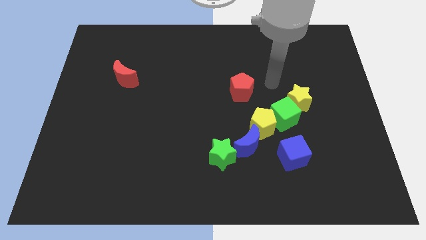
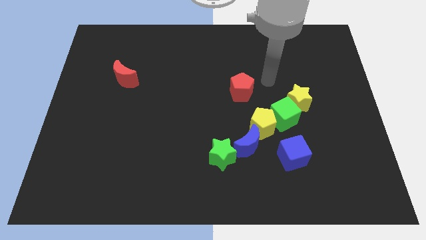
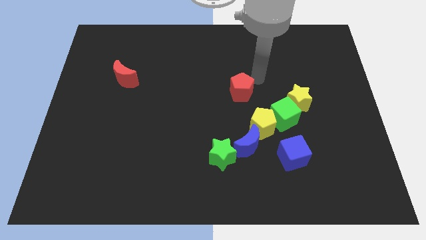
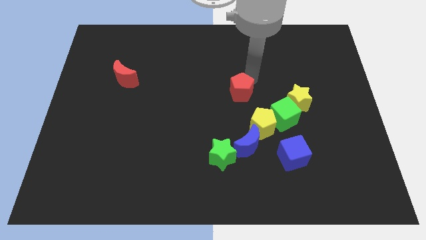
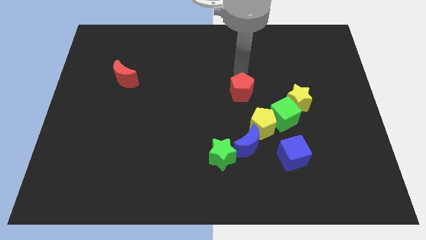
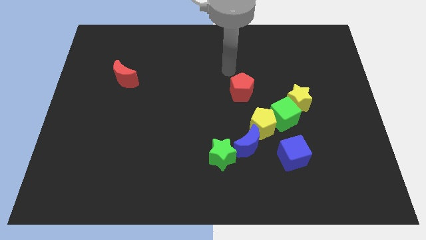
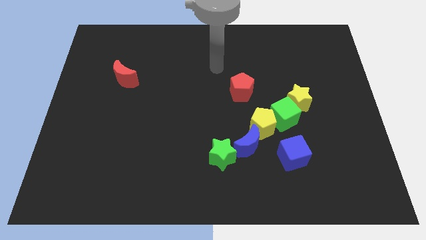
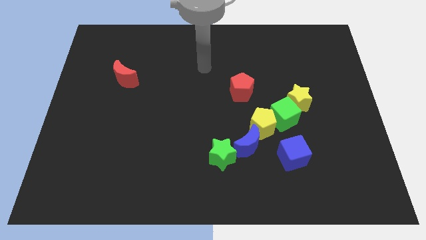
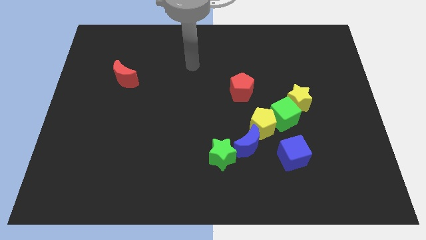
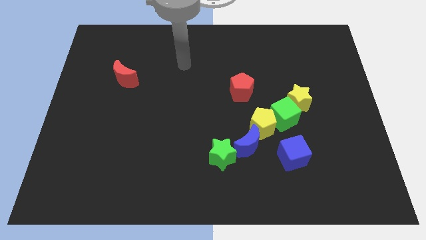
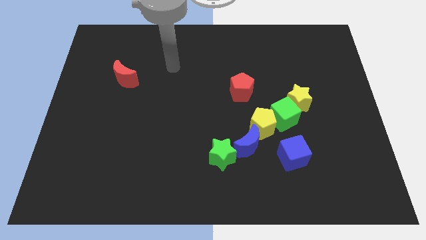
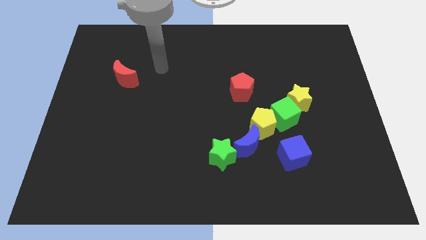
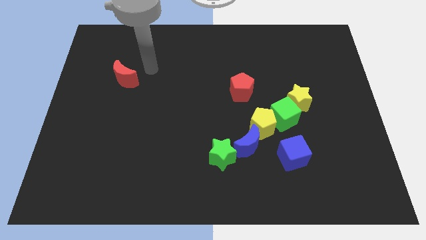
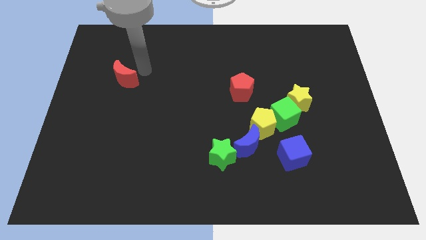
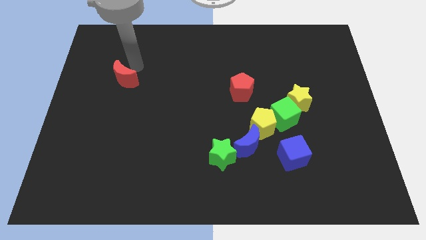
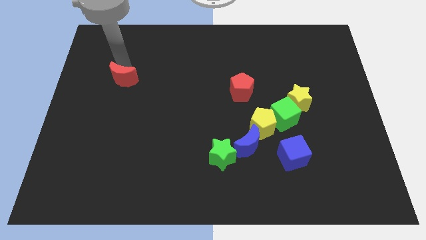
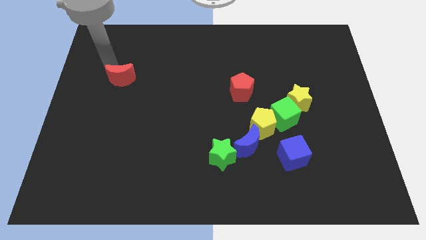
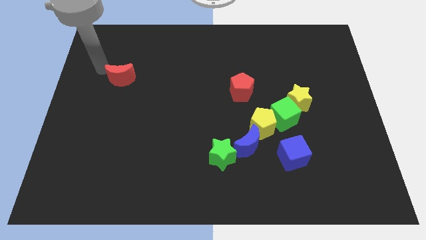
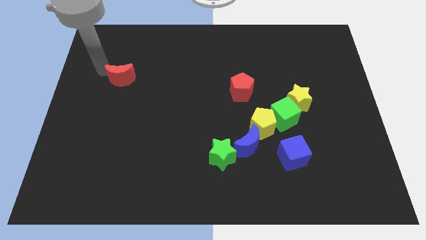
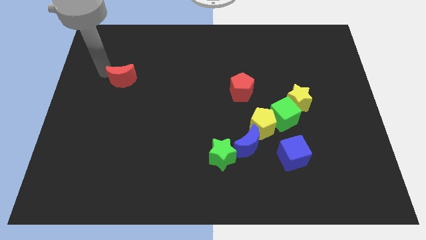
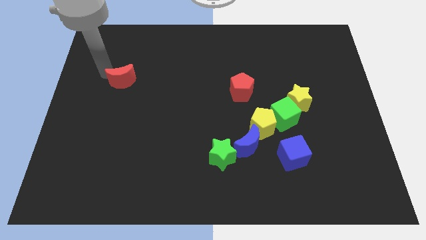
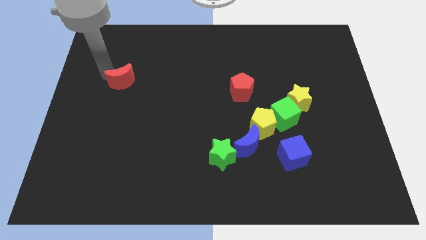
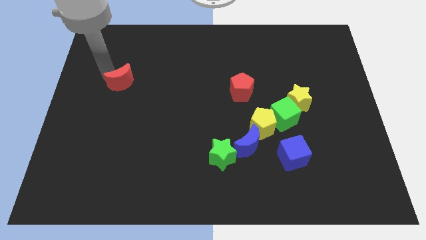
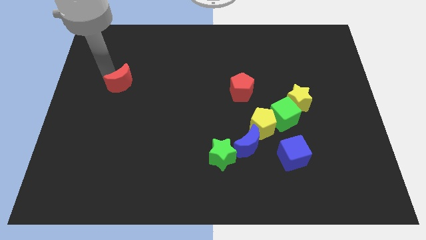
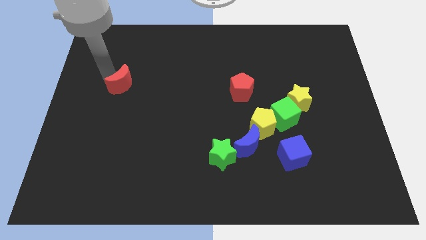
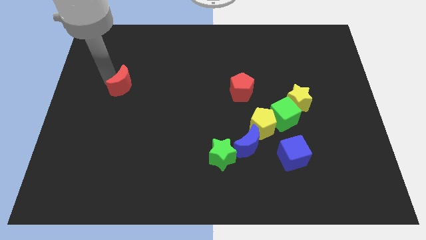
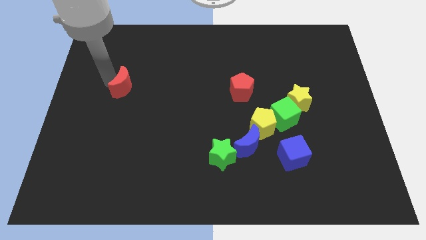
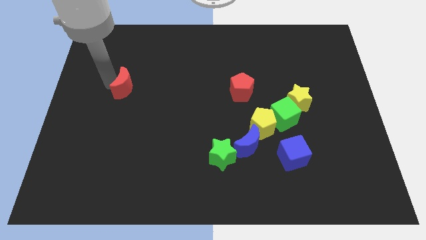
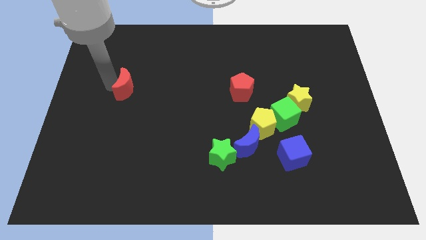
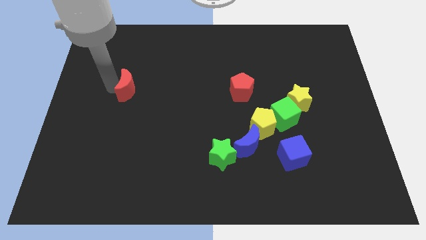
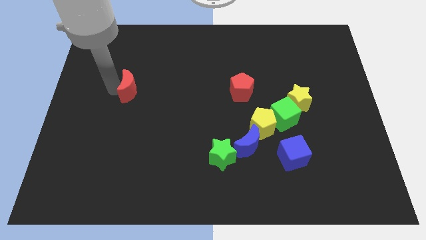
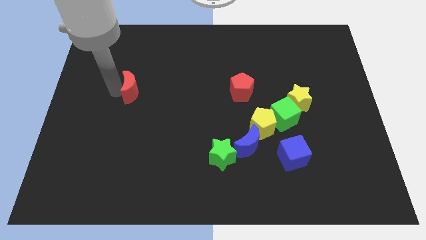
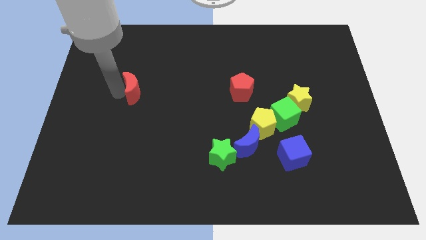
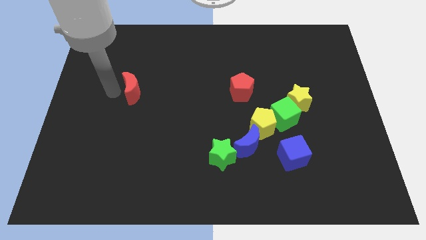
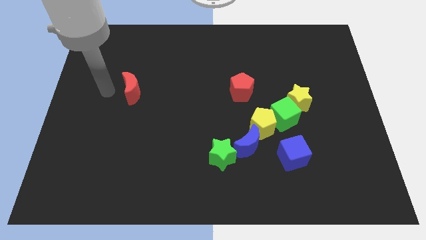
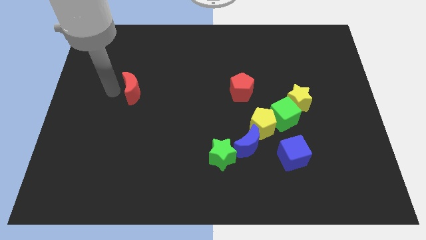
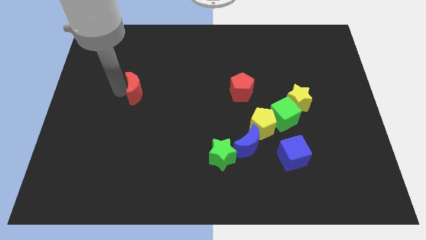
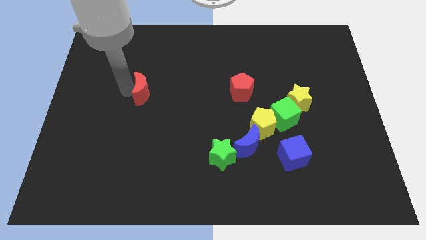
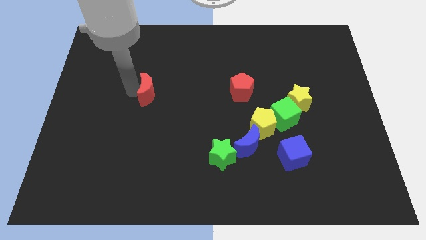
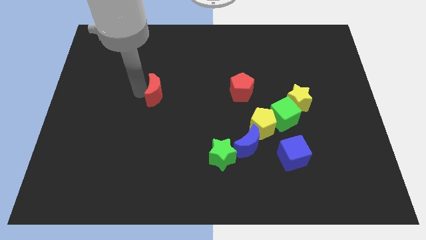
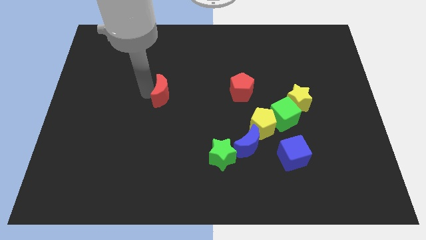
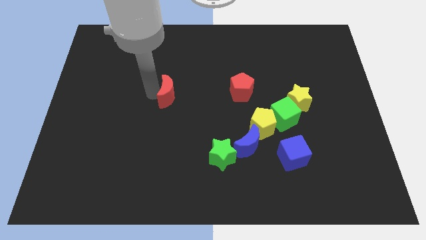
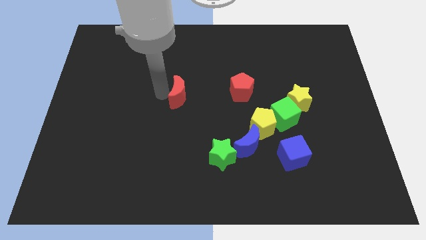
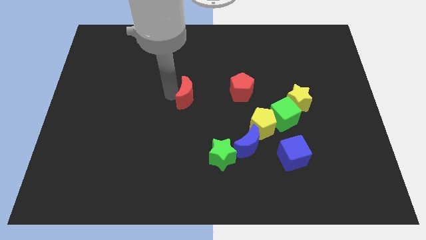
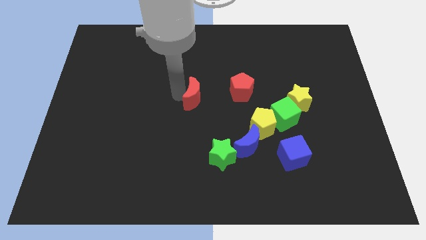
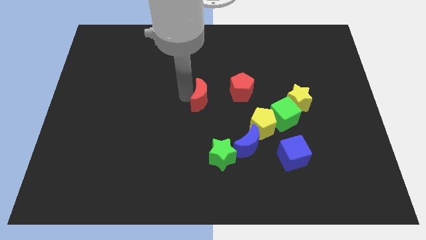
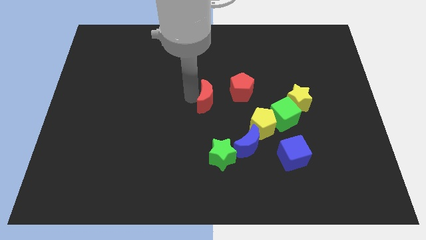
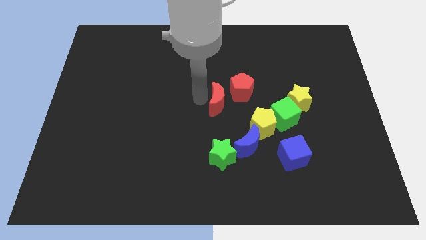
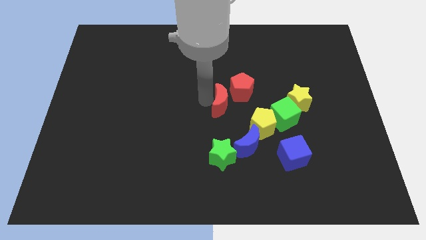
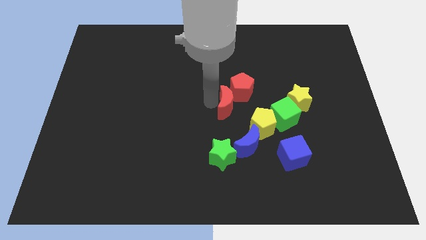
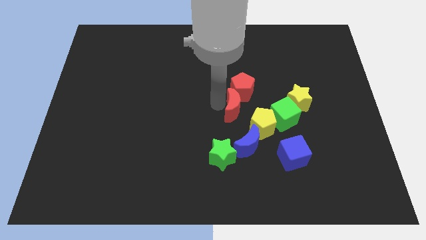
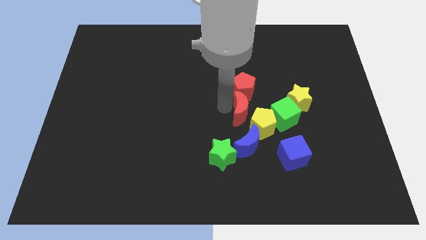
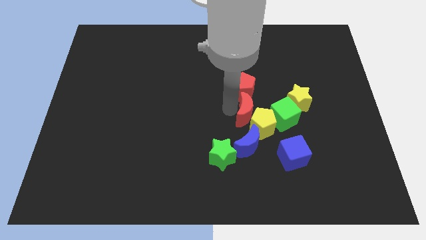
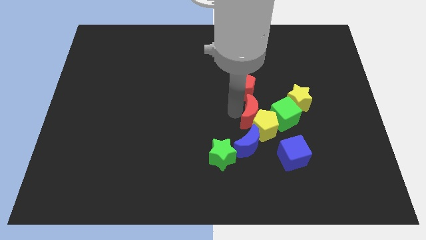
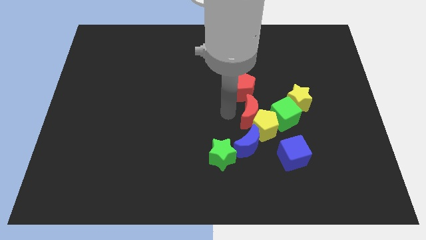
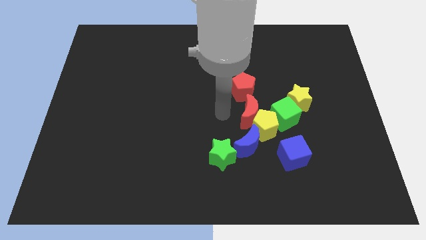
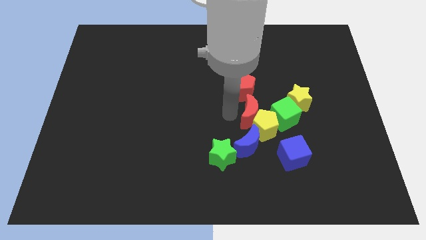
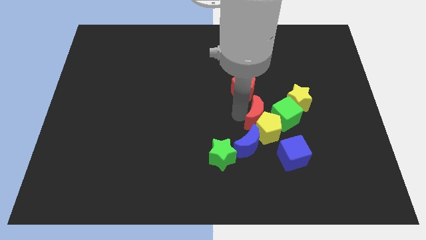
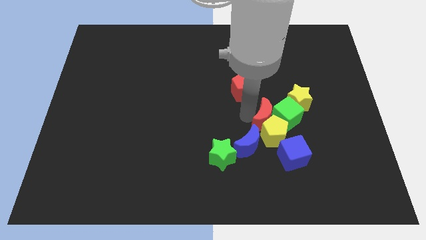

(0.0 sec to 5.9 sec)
push the red moon close to the green cube
